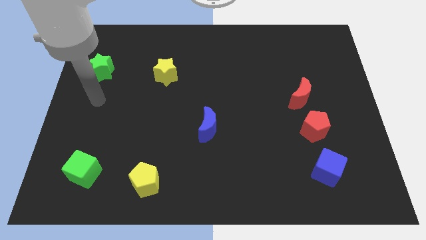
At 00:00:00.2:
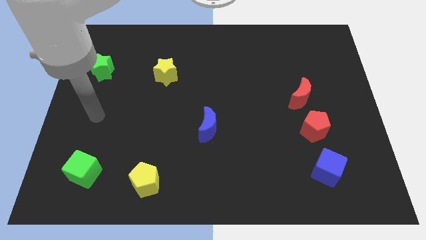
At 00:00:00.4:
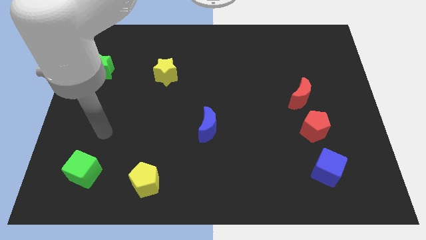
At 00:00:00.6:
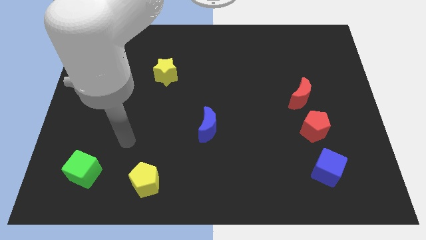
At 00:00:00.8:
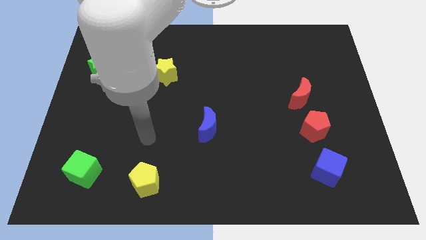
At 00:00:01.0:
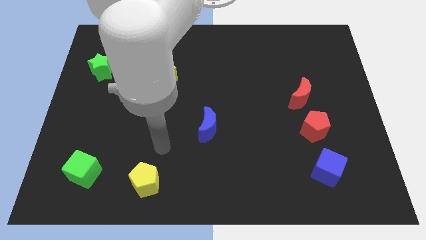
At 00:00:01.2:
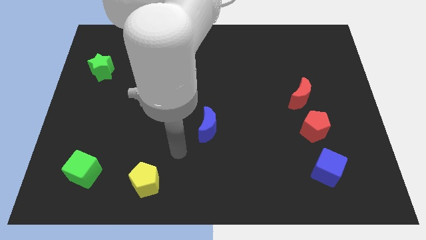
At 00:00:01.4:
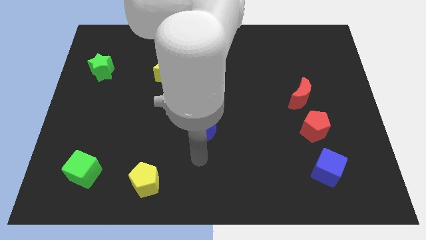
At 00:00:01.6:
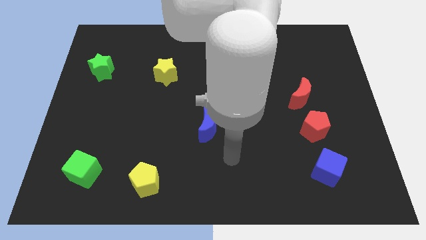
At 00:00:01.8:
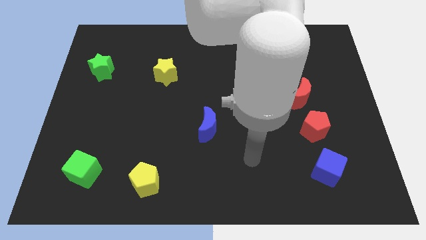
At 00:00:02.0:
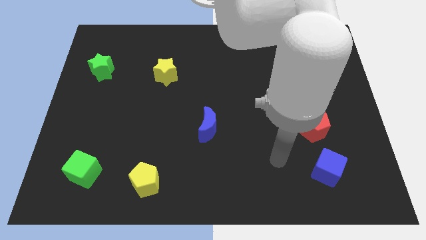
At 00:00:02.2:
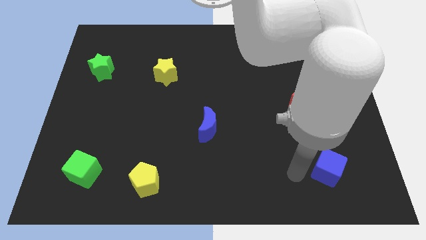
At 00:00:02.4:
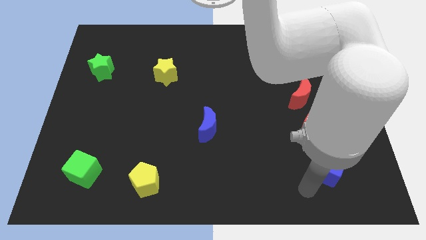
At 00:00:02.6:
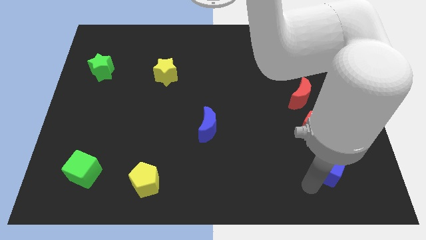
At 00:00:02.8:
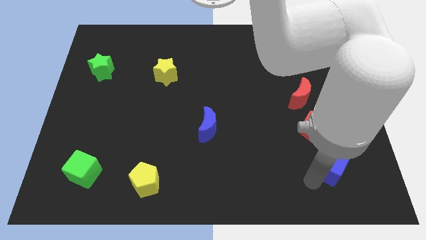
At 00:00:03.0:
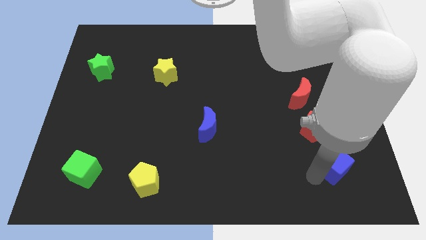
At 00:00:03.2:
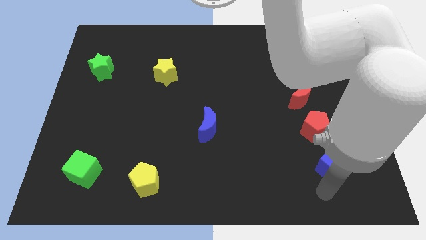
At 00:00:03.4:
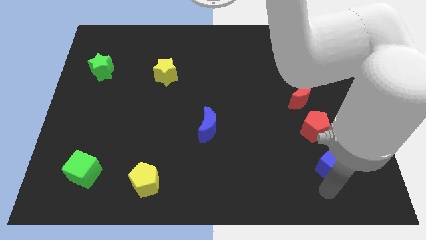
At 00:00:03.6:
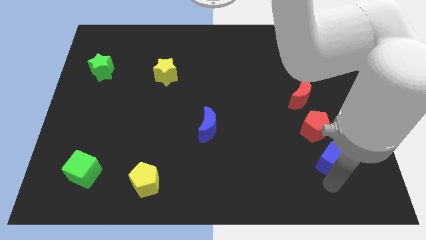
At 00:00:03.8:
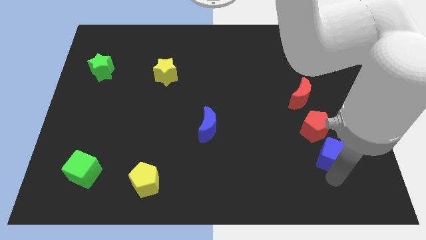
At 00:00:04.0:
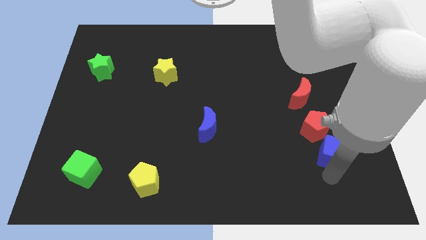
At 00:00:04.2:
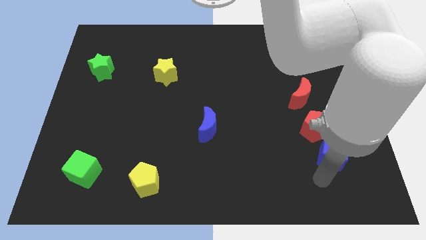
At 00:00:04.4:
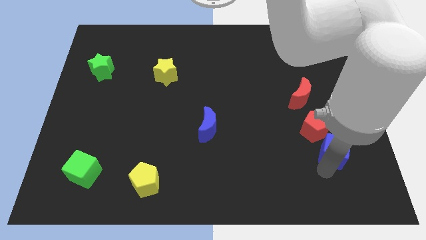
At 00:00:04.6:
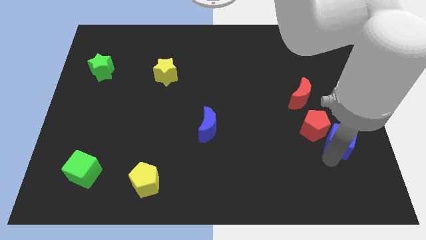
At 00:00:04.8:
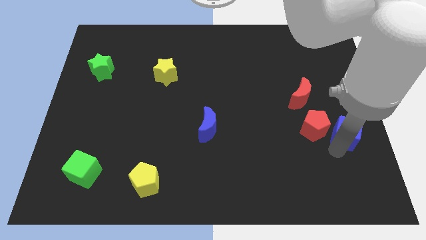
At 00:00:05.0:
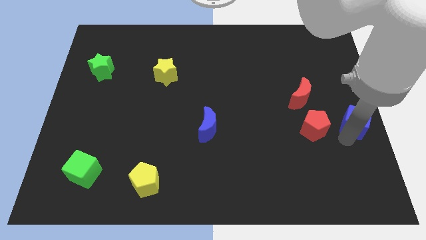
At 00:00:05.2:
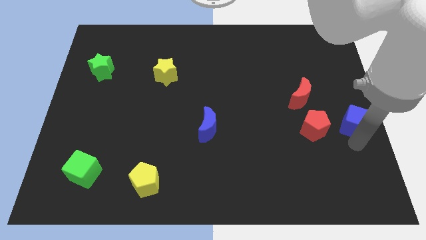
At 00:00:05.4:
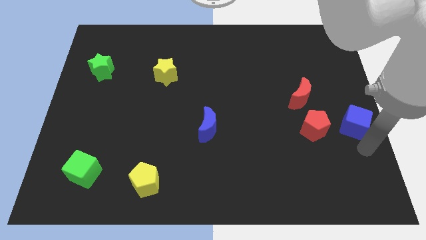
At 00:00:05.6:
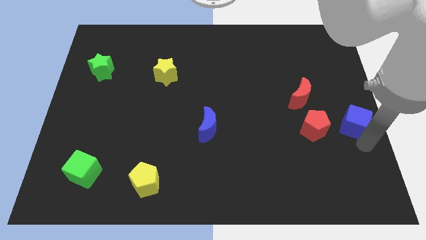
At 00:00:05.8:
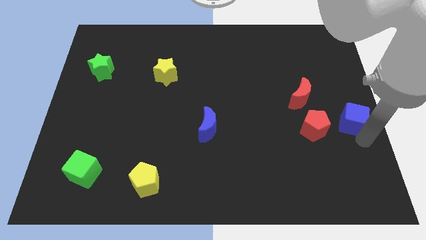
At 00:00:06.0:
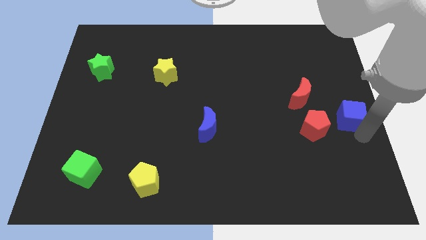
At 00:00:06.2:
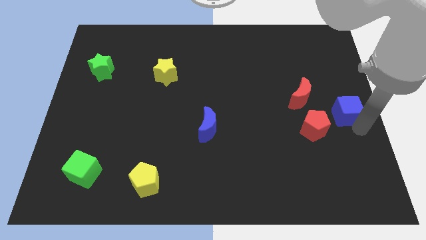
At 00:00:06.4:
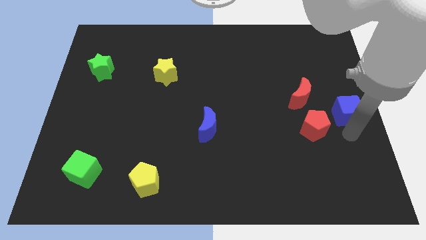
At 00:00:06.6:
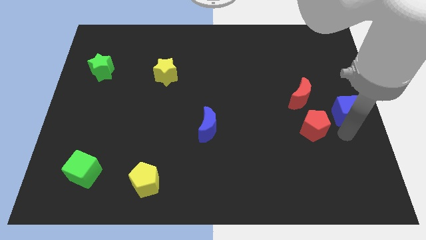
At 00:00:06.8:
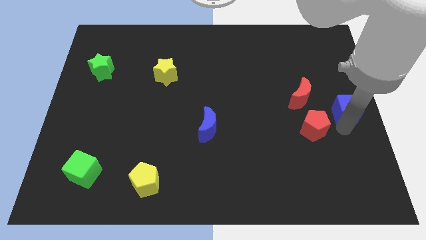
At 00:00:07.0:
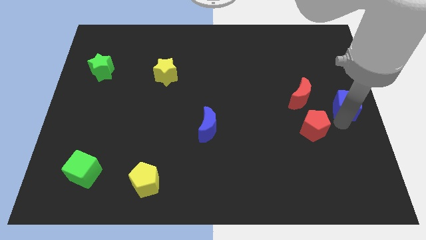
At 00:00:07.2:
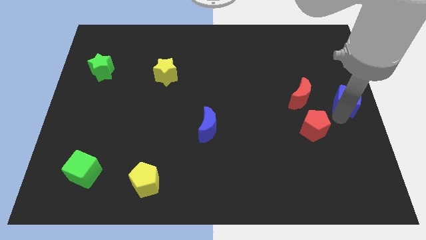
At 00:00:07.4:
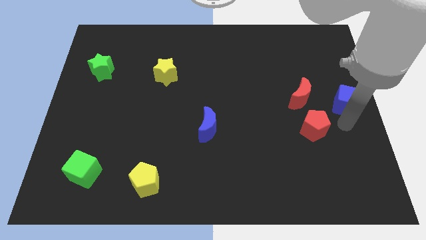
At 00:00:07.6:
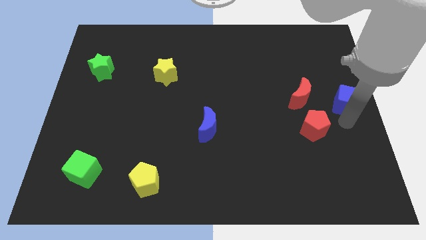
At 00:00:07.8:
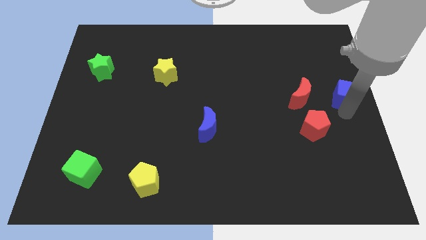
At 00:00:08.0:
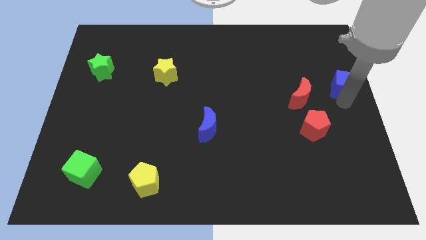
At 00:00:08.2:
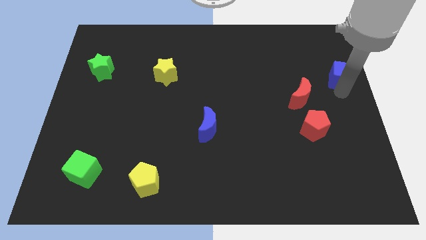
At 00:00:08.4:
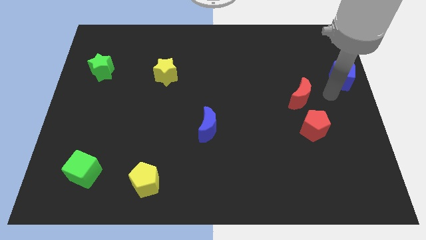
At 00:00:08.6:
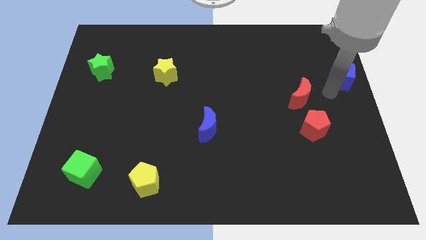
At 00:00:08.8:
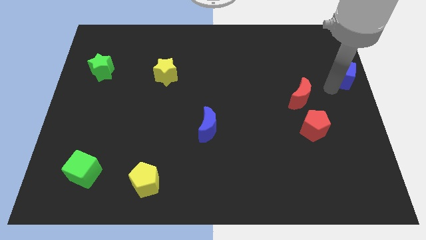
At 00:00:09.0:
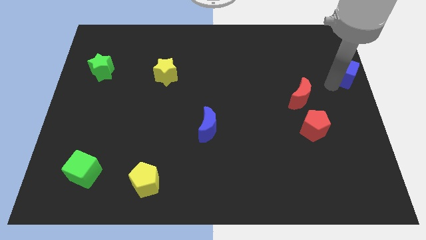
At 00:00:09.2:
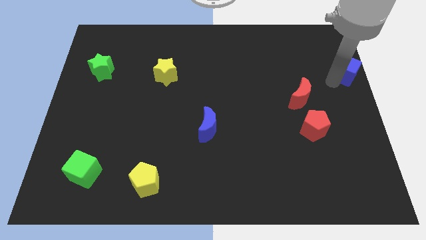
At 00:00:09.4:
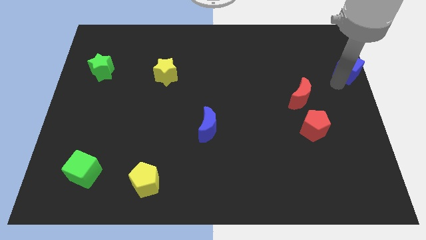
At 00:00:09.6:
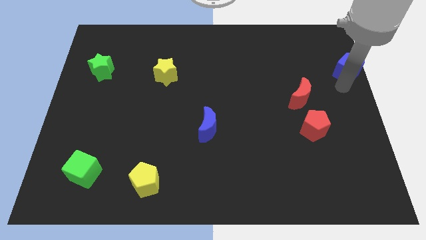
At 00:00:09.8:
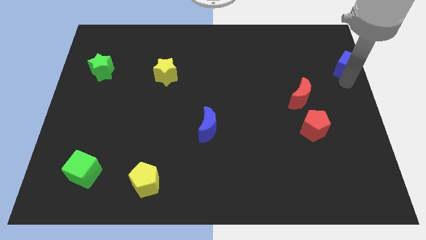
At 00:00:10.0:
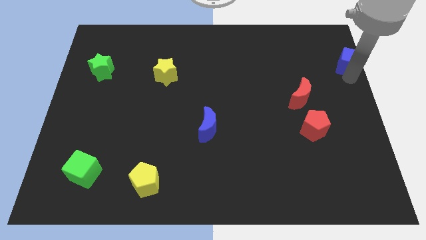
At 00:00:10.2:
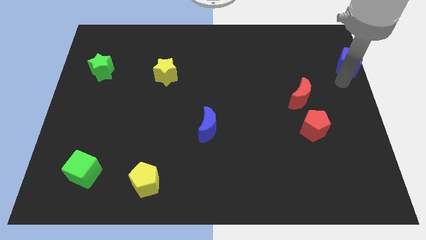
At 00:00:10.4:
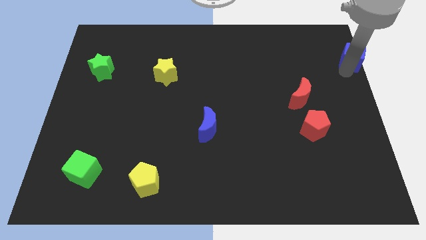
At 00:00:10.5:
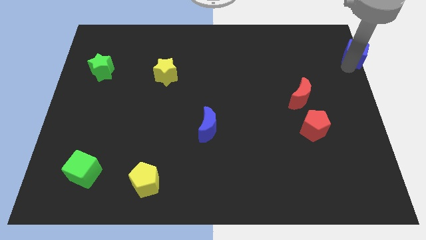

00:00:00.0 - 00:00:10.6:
put the blue cube to the top right of the board

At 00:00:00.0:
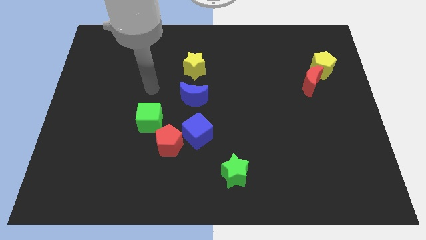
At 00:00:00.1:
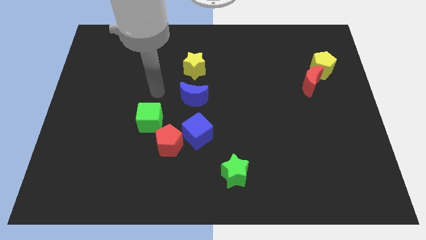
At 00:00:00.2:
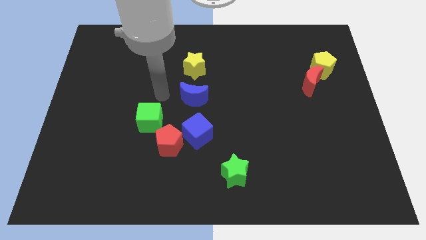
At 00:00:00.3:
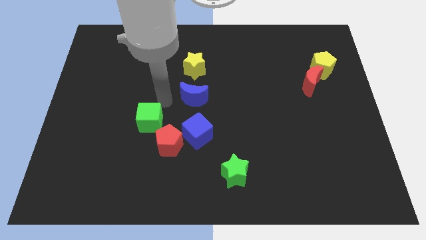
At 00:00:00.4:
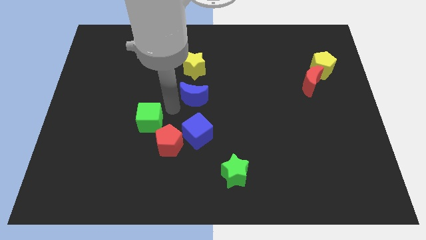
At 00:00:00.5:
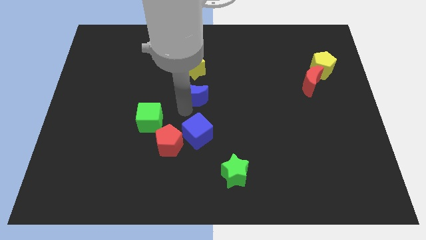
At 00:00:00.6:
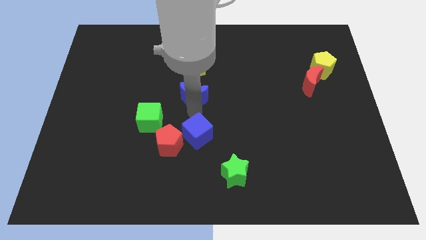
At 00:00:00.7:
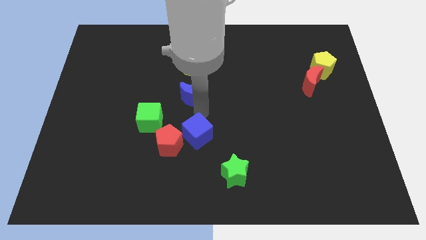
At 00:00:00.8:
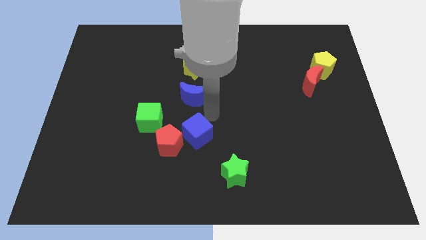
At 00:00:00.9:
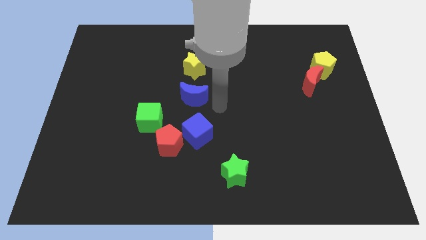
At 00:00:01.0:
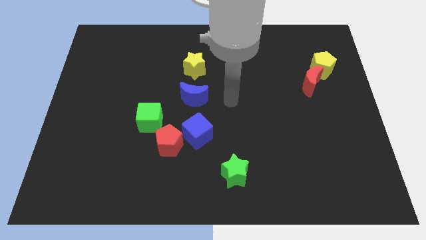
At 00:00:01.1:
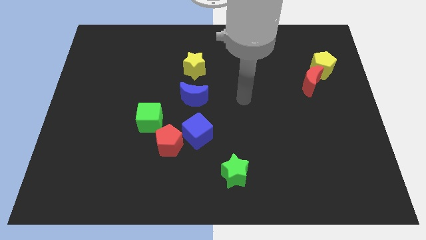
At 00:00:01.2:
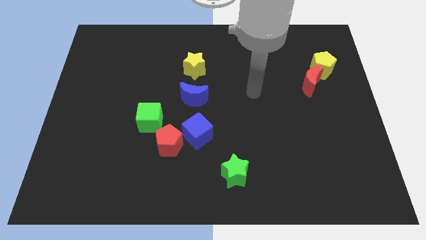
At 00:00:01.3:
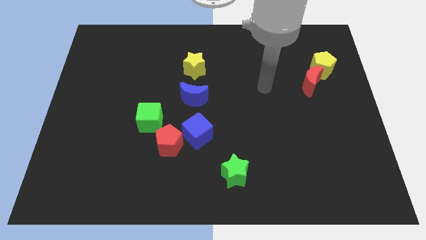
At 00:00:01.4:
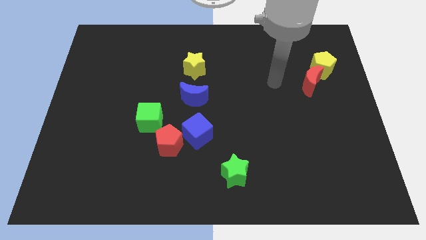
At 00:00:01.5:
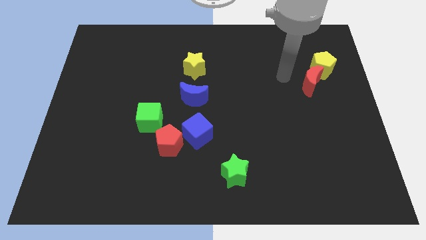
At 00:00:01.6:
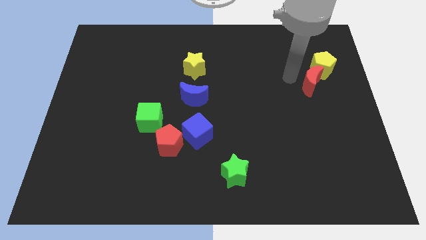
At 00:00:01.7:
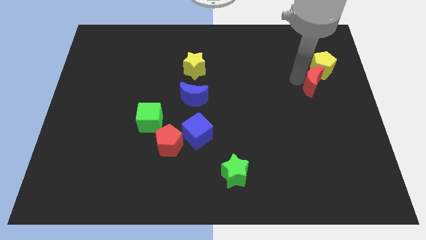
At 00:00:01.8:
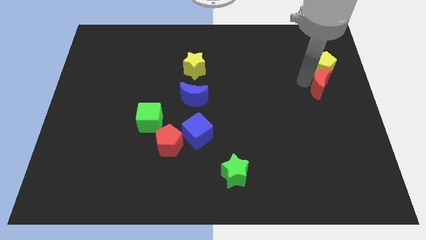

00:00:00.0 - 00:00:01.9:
slide the red moon to the right side

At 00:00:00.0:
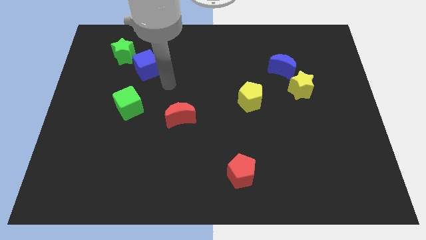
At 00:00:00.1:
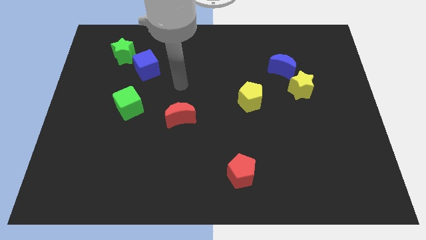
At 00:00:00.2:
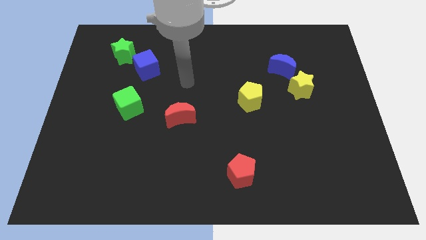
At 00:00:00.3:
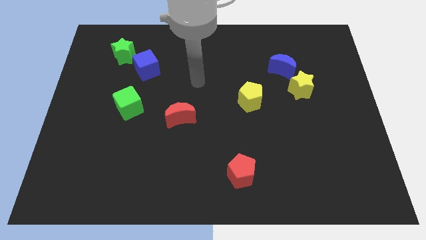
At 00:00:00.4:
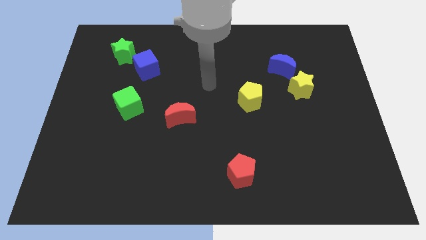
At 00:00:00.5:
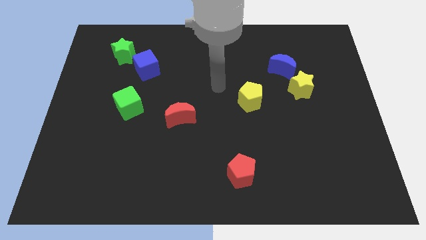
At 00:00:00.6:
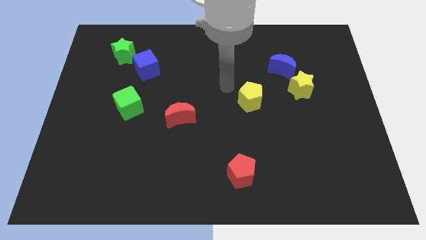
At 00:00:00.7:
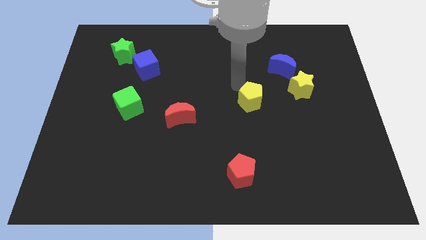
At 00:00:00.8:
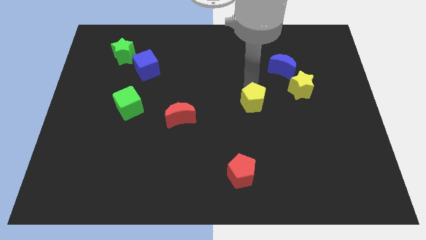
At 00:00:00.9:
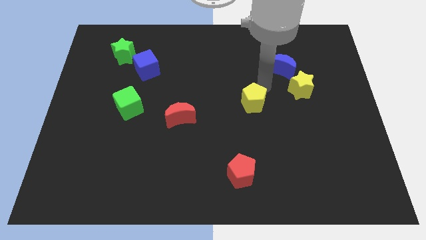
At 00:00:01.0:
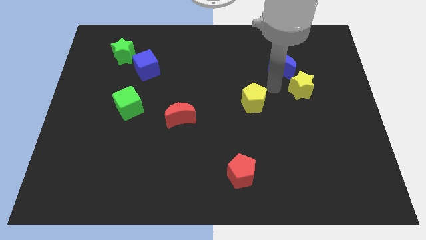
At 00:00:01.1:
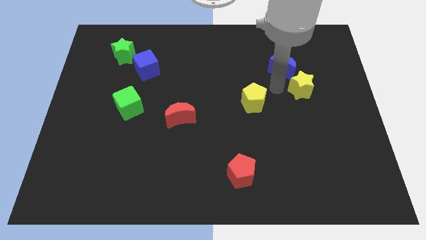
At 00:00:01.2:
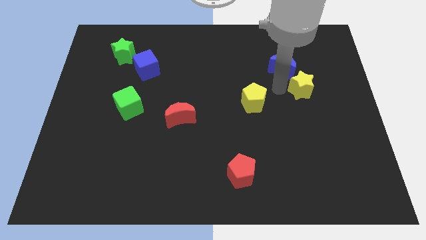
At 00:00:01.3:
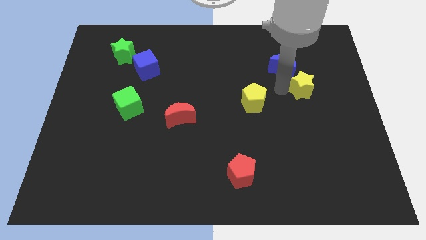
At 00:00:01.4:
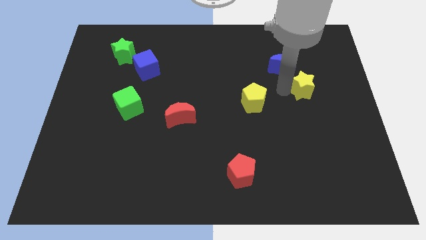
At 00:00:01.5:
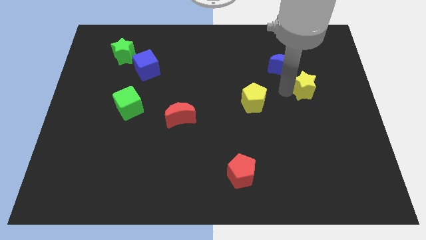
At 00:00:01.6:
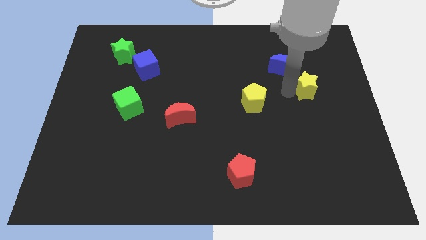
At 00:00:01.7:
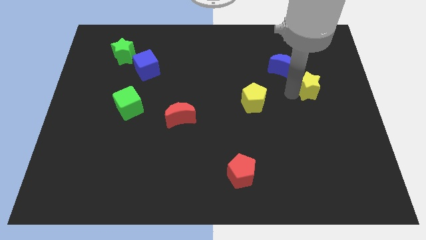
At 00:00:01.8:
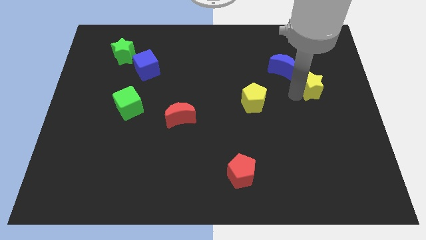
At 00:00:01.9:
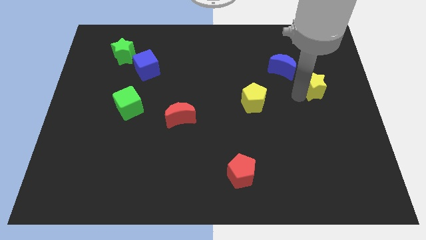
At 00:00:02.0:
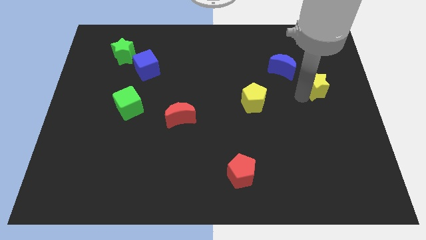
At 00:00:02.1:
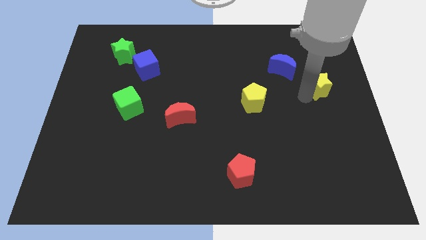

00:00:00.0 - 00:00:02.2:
push the yellow star to the right side
